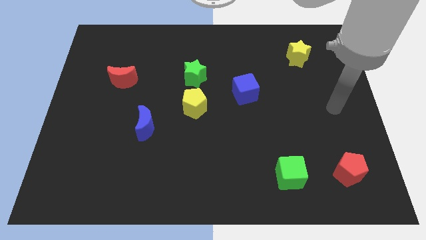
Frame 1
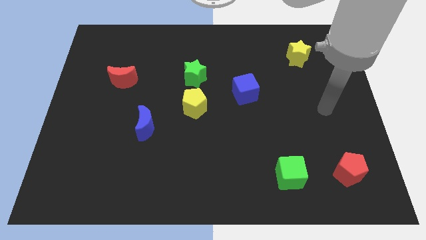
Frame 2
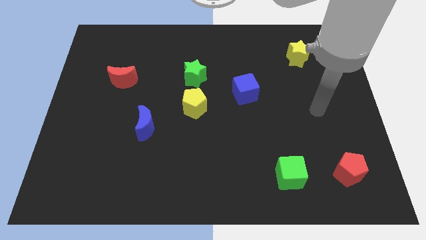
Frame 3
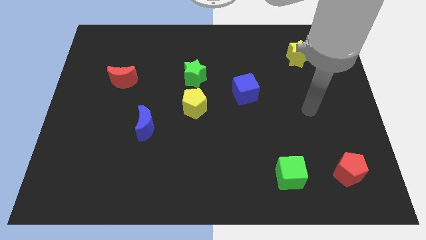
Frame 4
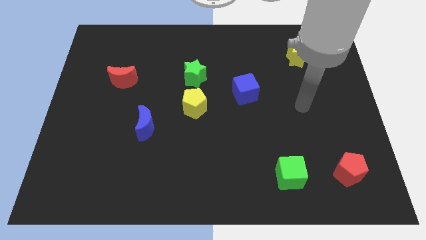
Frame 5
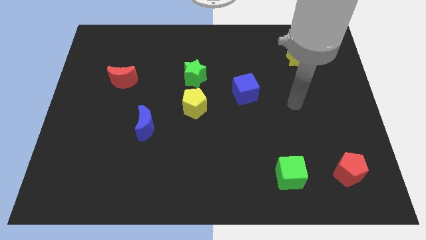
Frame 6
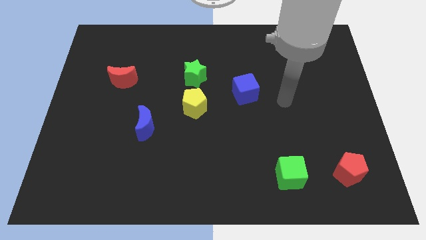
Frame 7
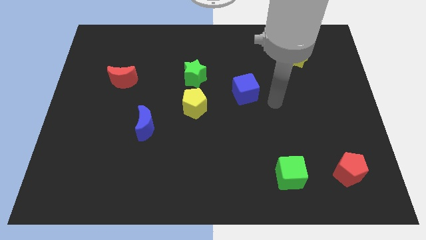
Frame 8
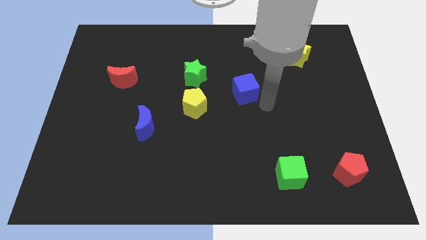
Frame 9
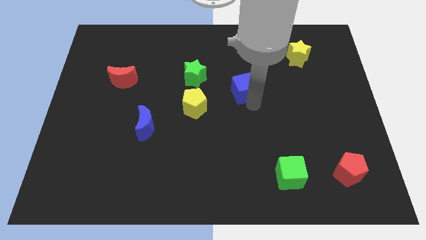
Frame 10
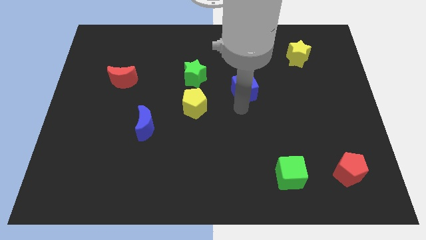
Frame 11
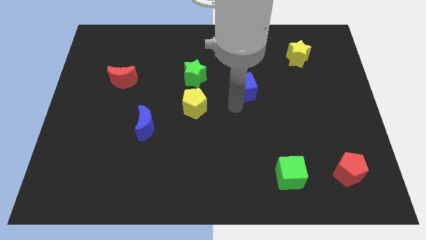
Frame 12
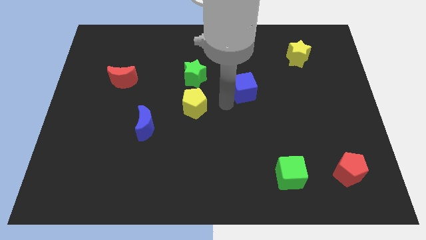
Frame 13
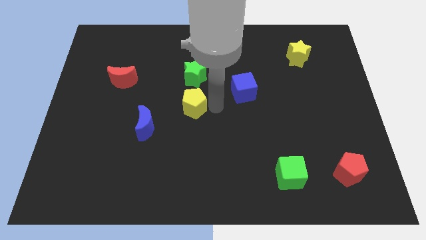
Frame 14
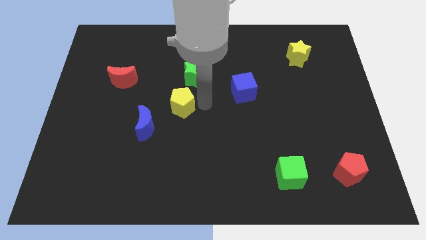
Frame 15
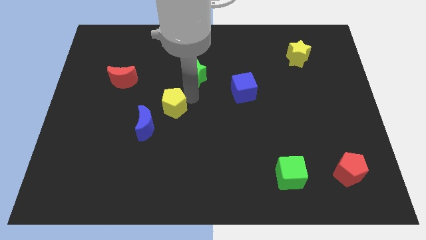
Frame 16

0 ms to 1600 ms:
move the green star away from the yellow pentagon

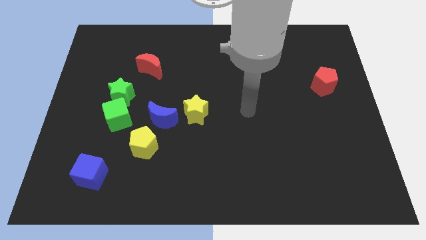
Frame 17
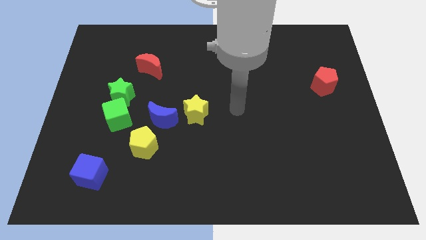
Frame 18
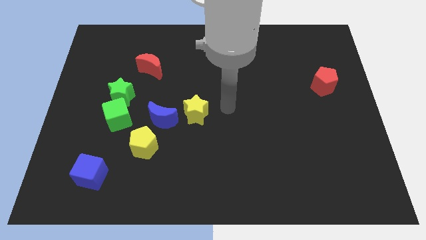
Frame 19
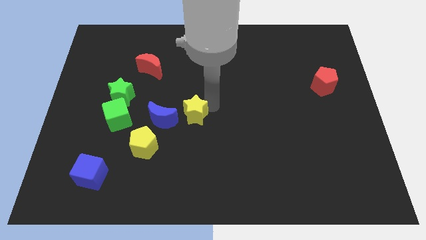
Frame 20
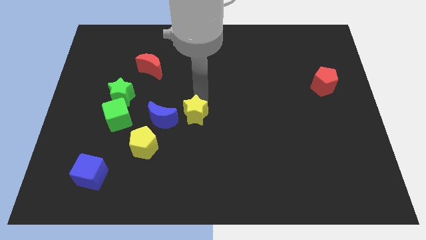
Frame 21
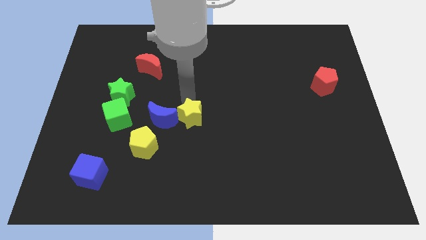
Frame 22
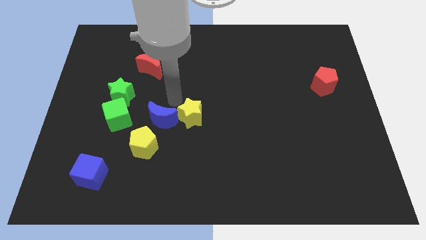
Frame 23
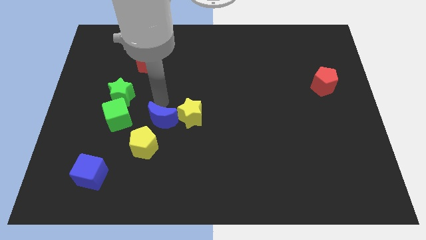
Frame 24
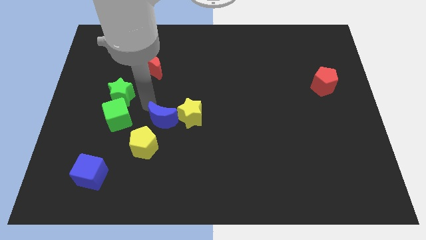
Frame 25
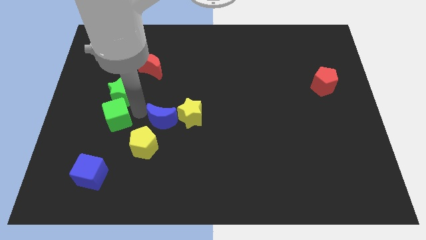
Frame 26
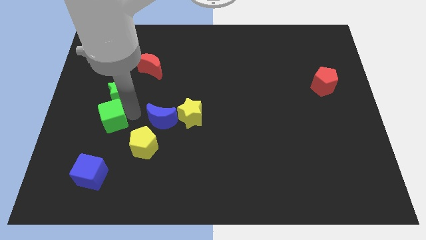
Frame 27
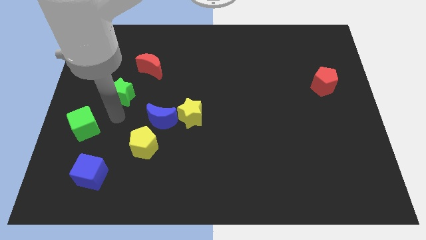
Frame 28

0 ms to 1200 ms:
move the green star away from the green cube

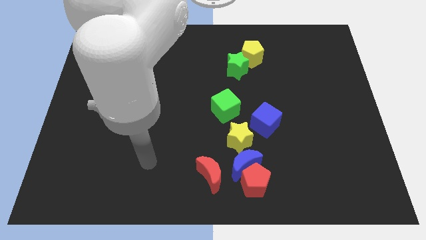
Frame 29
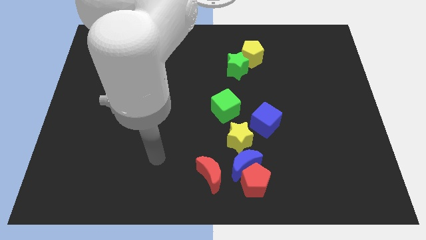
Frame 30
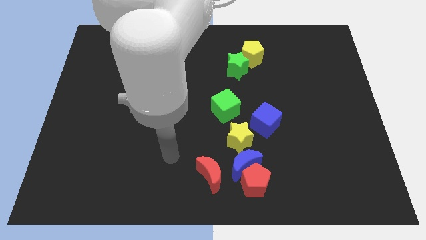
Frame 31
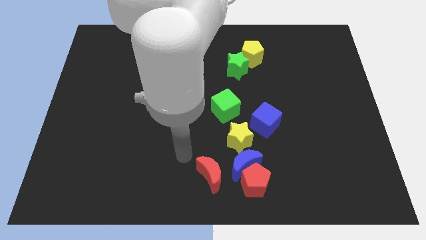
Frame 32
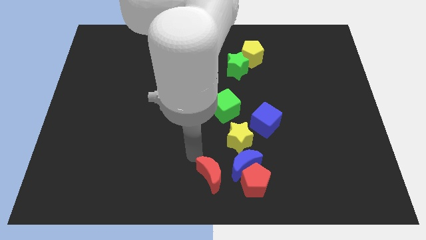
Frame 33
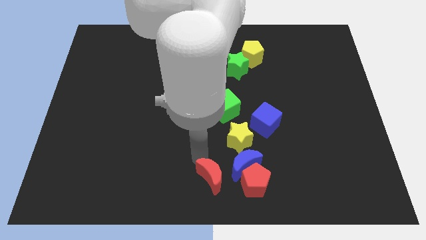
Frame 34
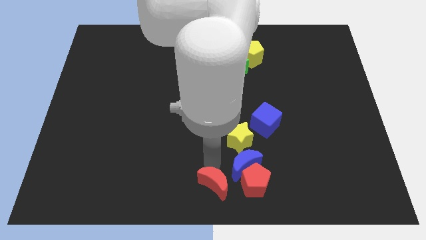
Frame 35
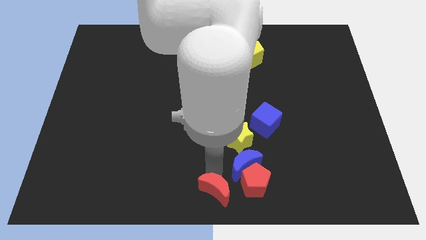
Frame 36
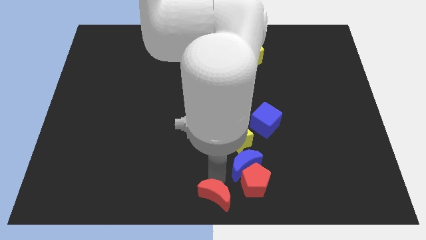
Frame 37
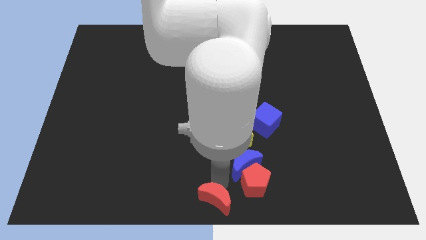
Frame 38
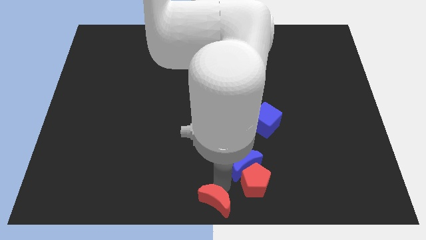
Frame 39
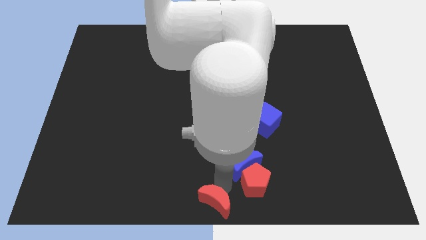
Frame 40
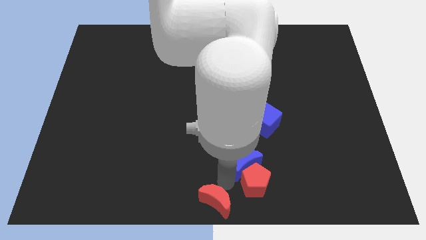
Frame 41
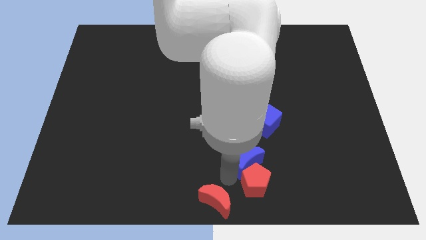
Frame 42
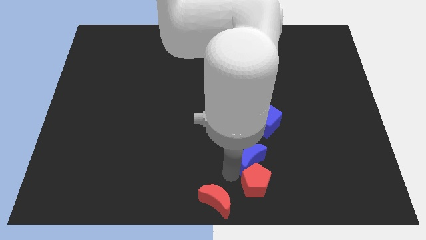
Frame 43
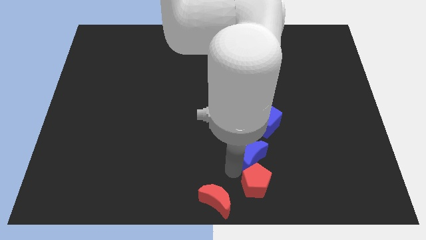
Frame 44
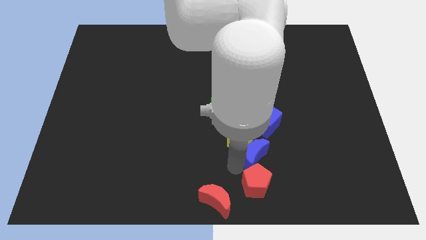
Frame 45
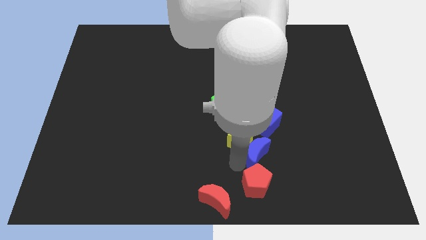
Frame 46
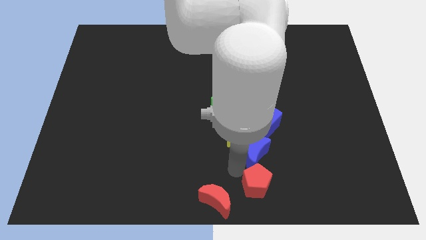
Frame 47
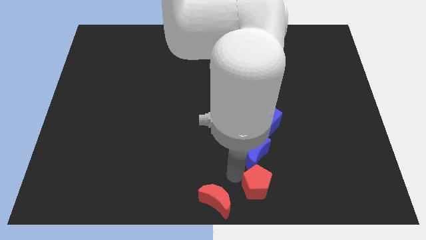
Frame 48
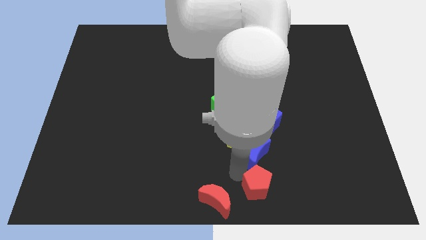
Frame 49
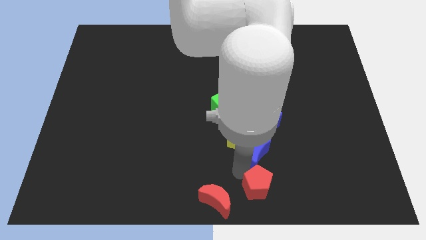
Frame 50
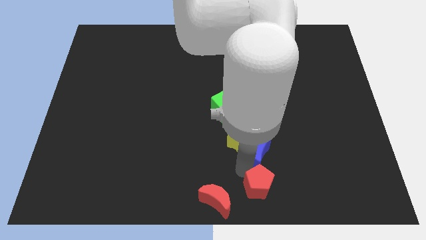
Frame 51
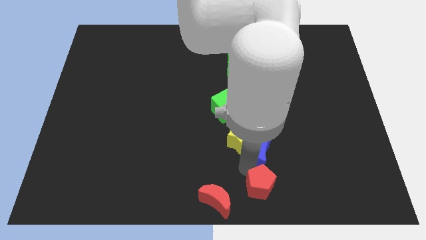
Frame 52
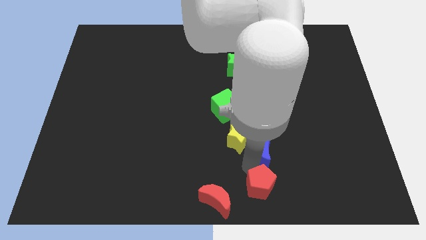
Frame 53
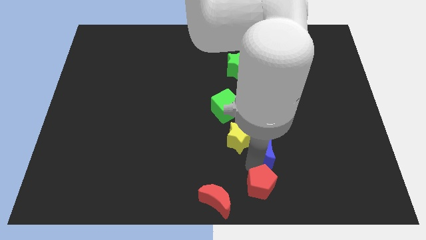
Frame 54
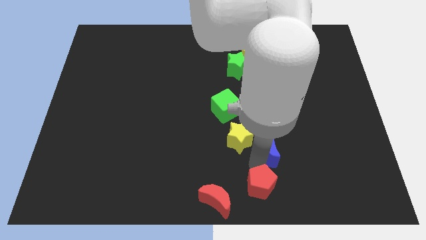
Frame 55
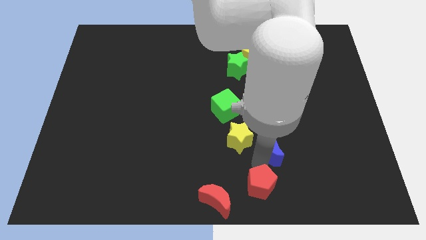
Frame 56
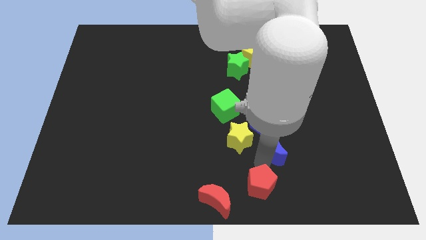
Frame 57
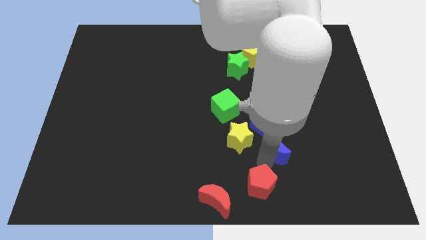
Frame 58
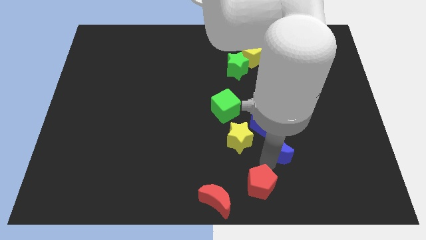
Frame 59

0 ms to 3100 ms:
pull the blue moon apart from the clump

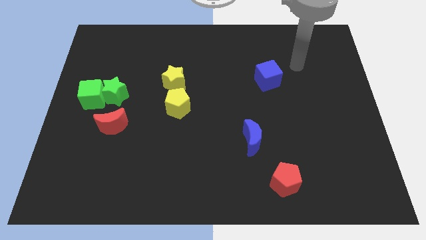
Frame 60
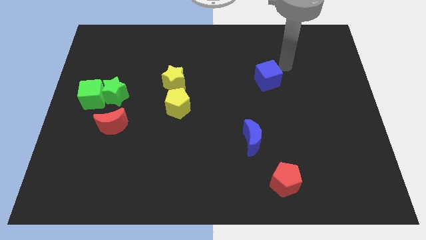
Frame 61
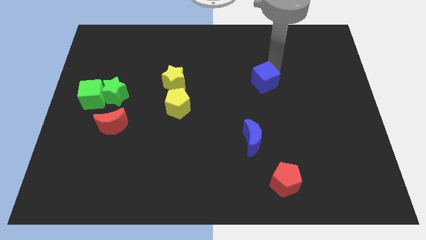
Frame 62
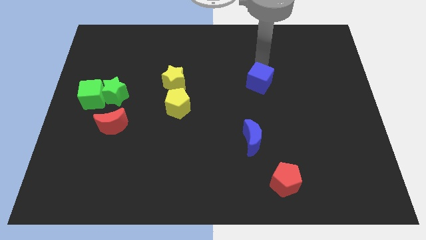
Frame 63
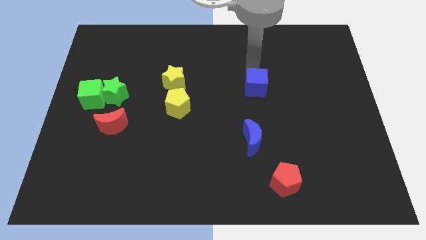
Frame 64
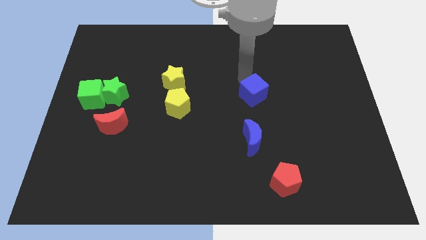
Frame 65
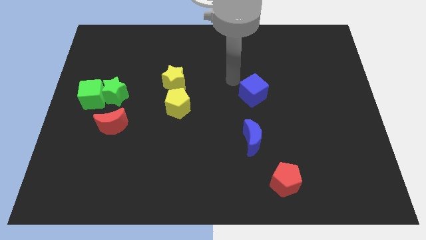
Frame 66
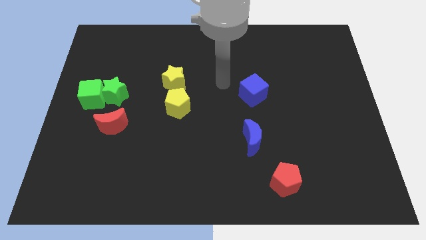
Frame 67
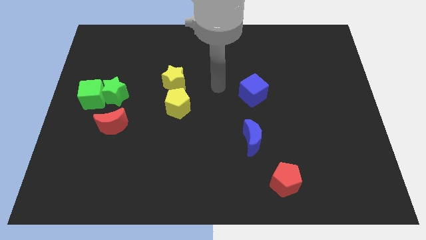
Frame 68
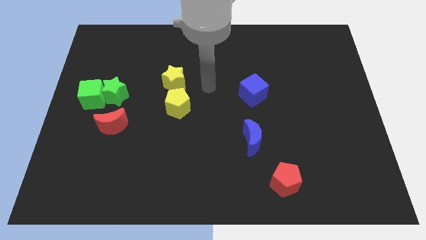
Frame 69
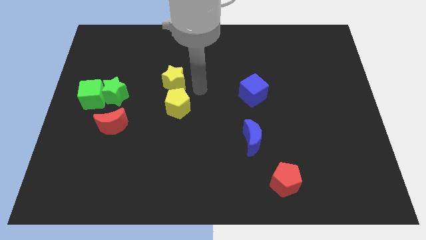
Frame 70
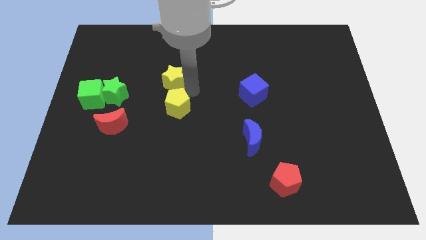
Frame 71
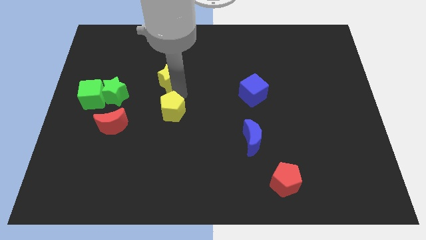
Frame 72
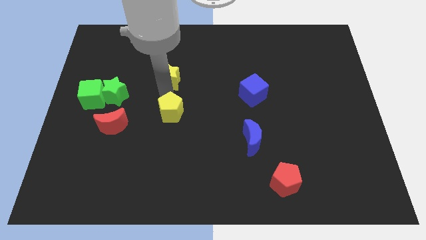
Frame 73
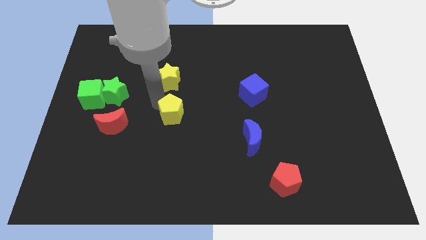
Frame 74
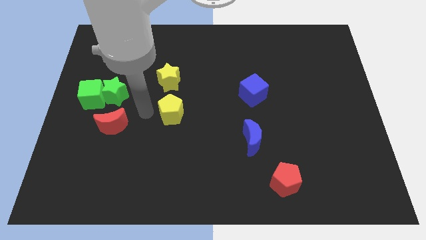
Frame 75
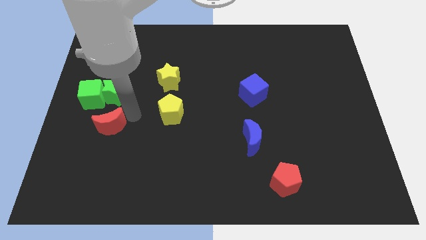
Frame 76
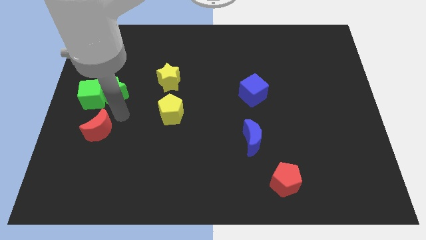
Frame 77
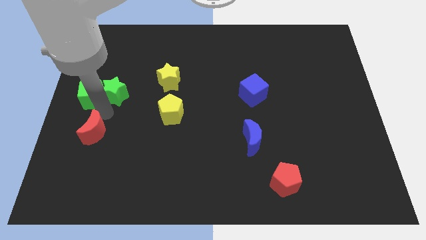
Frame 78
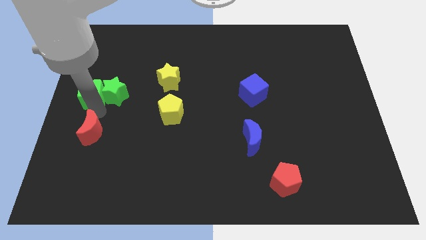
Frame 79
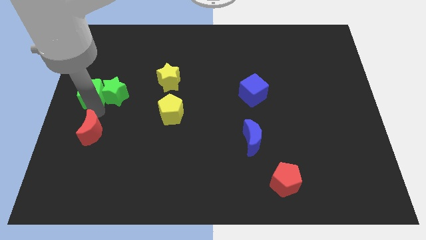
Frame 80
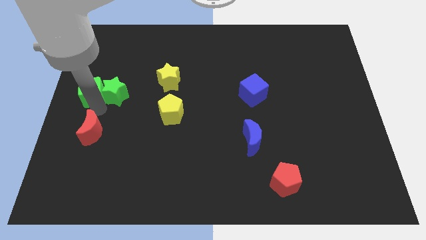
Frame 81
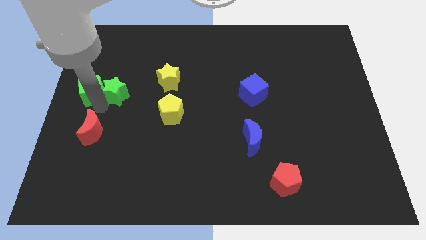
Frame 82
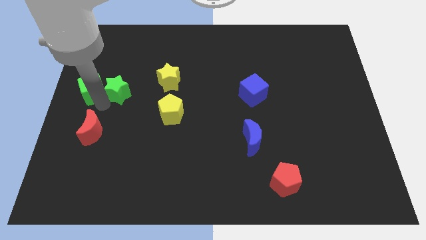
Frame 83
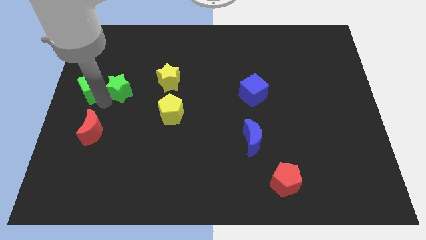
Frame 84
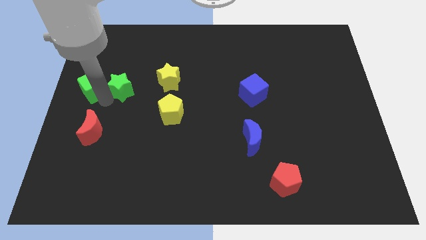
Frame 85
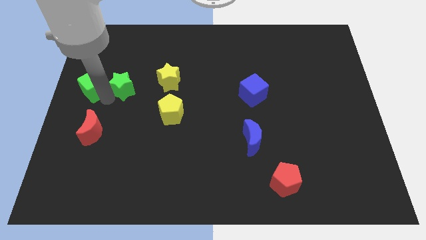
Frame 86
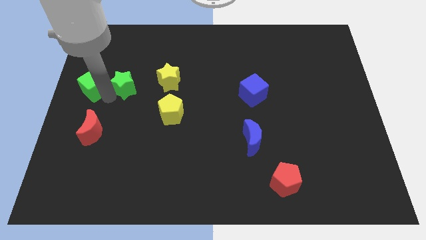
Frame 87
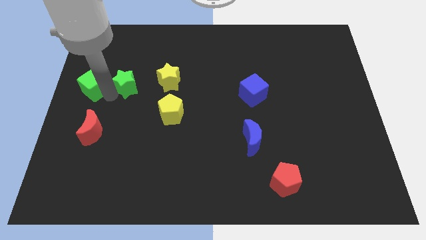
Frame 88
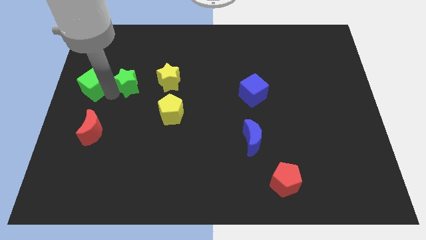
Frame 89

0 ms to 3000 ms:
separate the green star from the green cube and red moon

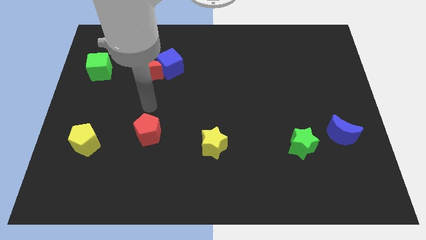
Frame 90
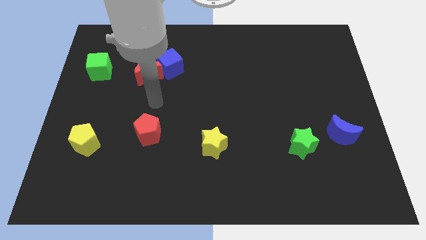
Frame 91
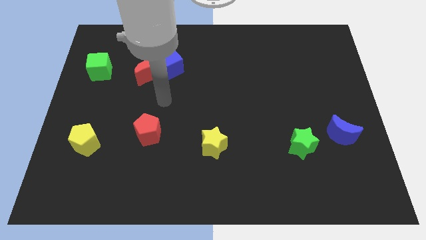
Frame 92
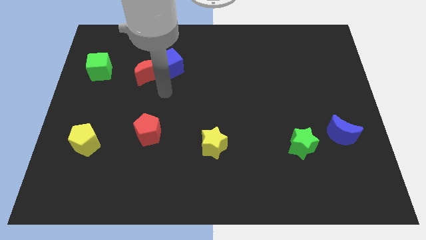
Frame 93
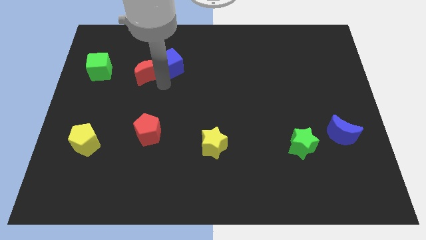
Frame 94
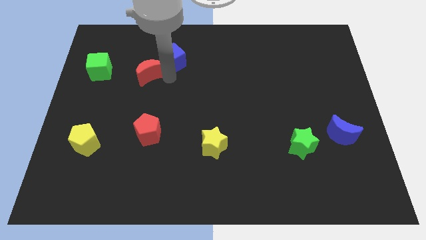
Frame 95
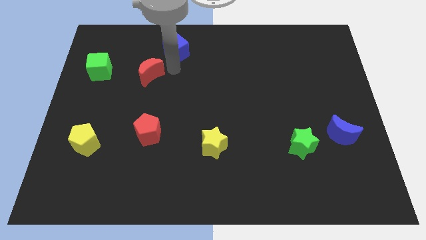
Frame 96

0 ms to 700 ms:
move the red moon away from the blue cube
